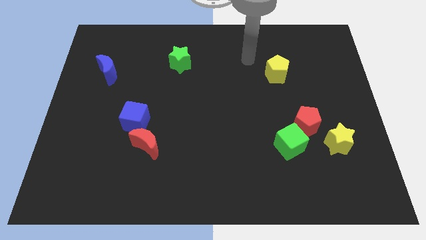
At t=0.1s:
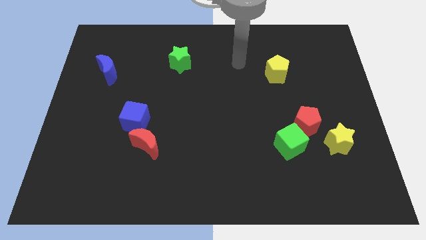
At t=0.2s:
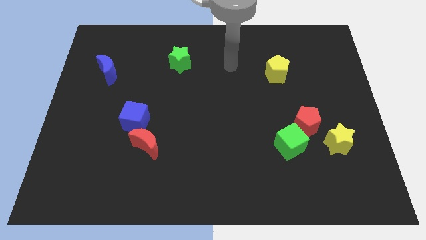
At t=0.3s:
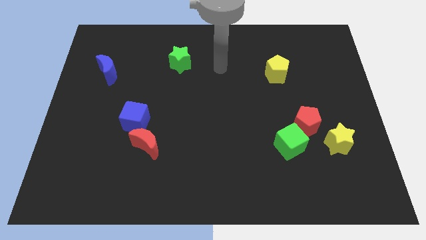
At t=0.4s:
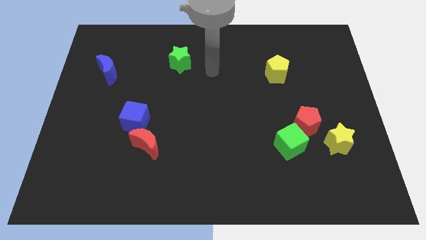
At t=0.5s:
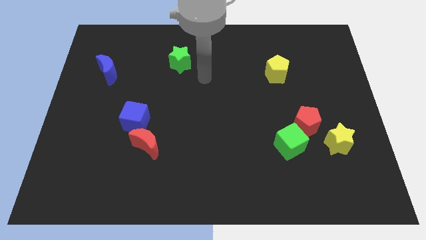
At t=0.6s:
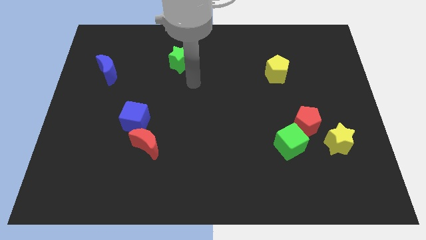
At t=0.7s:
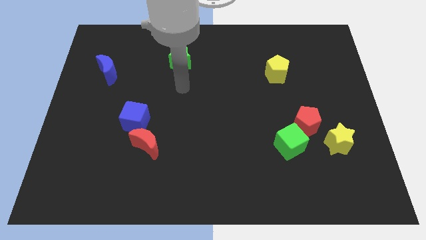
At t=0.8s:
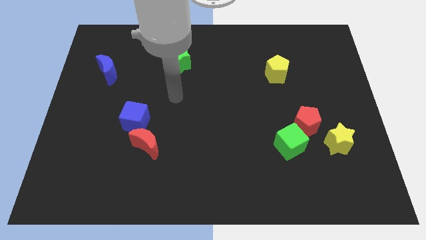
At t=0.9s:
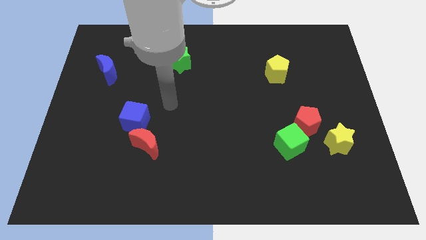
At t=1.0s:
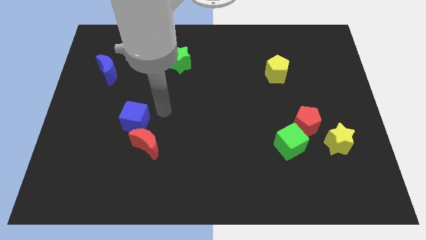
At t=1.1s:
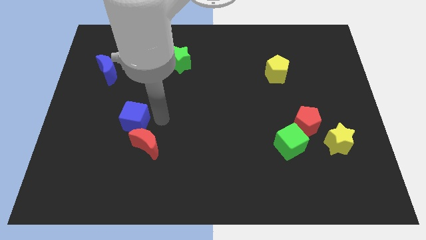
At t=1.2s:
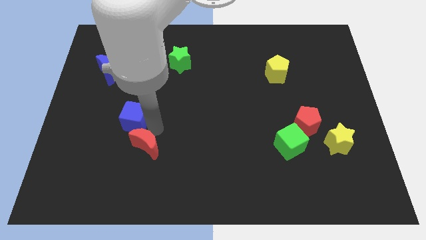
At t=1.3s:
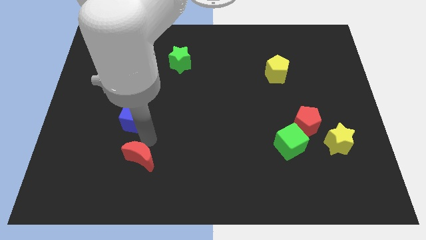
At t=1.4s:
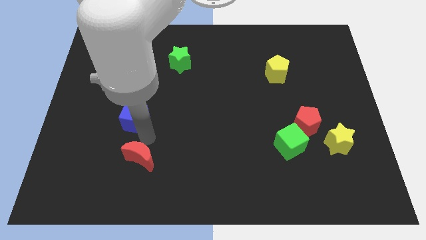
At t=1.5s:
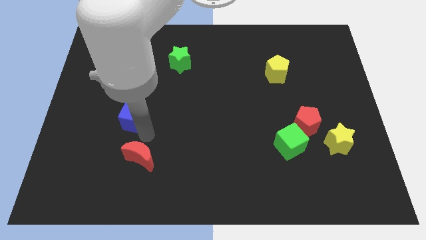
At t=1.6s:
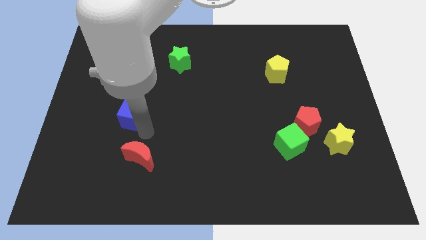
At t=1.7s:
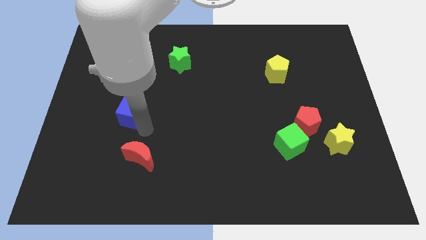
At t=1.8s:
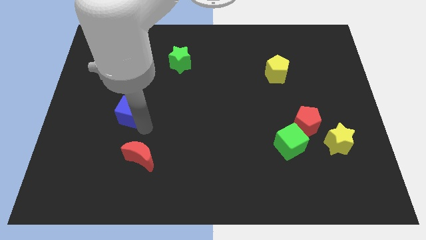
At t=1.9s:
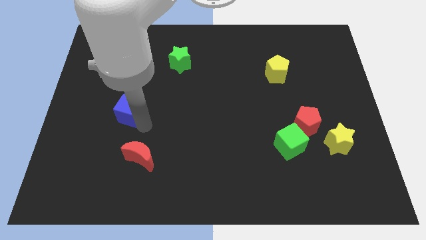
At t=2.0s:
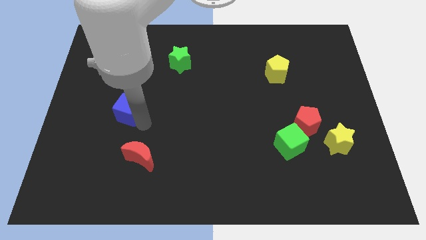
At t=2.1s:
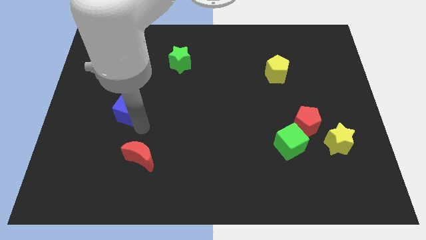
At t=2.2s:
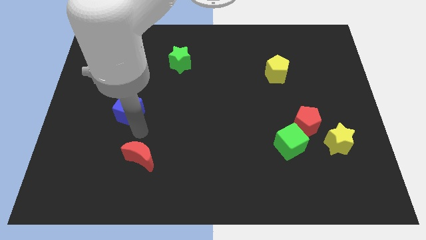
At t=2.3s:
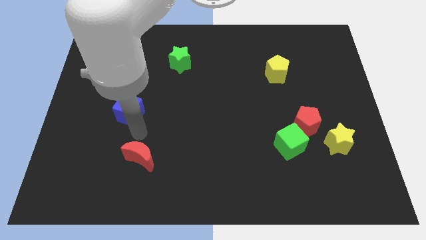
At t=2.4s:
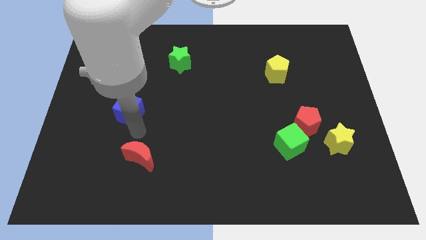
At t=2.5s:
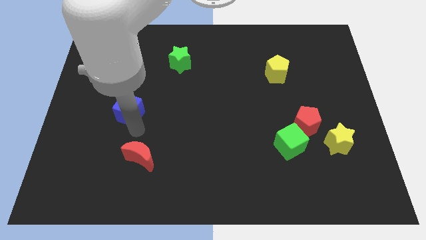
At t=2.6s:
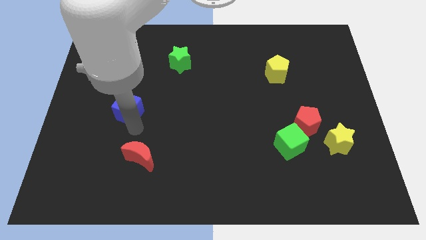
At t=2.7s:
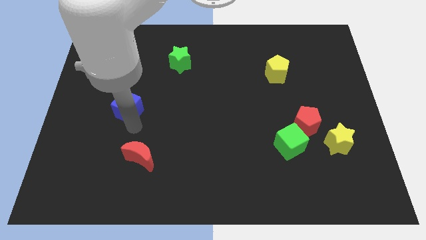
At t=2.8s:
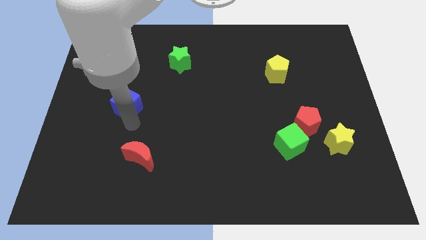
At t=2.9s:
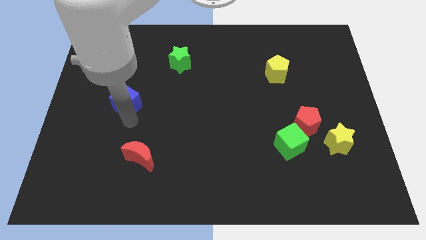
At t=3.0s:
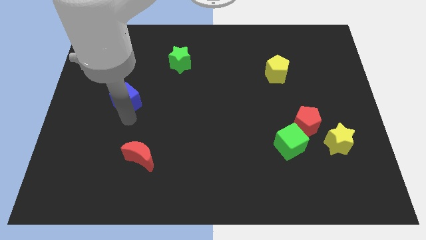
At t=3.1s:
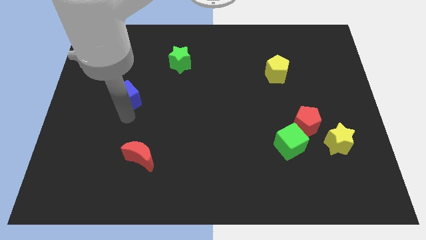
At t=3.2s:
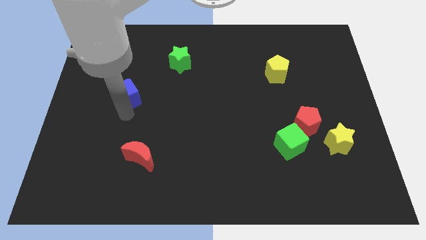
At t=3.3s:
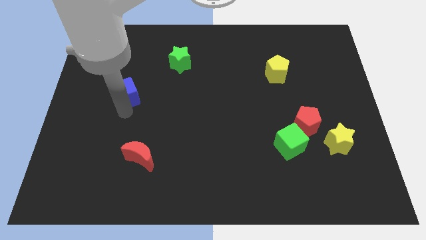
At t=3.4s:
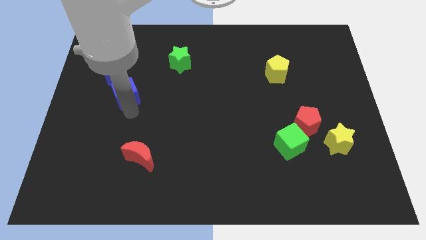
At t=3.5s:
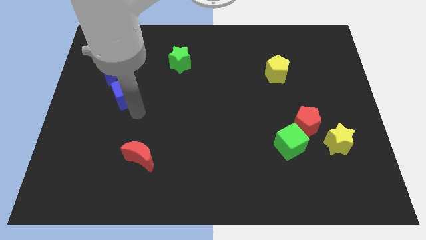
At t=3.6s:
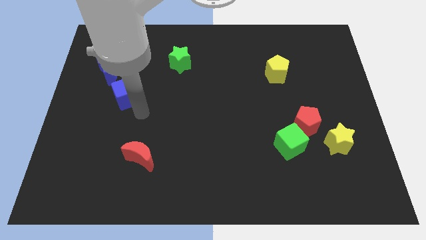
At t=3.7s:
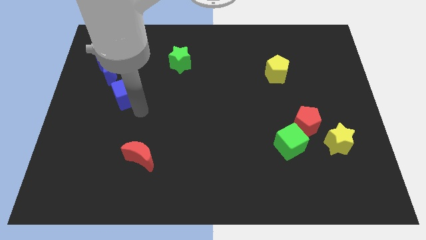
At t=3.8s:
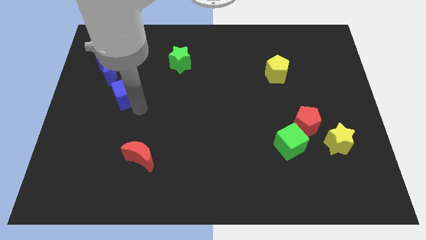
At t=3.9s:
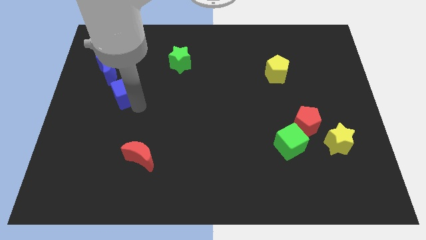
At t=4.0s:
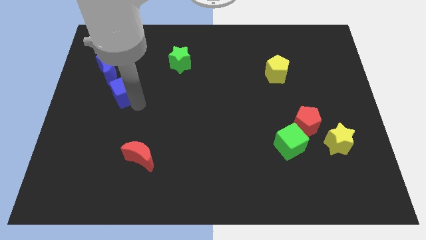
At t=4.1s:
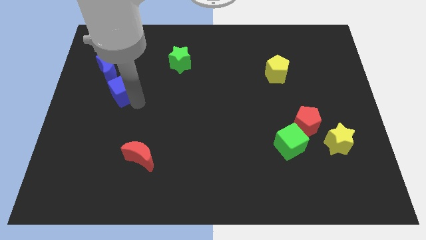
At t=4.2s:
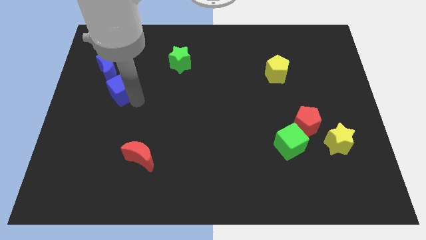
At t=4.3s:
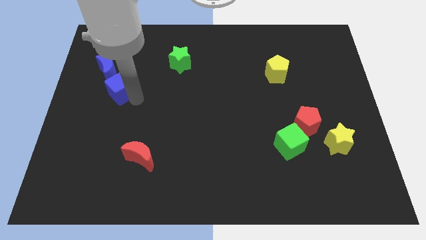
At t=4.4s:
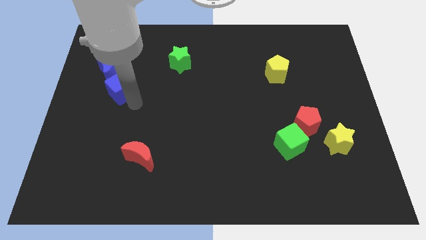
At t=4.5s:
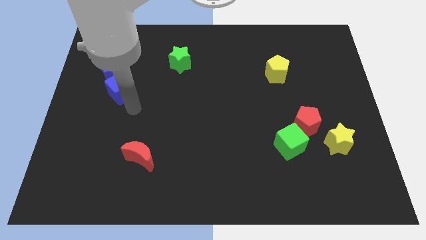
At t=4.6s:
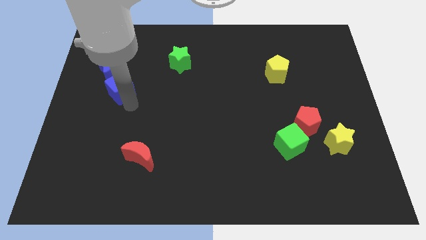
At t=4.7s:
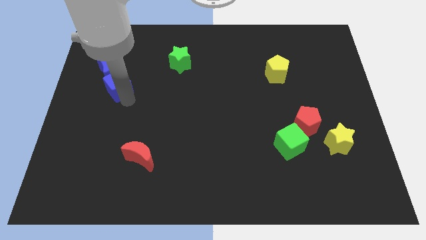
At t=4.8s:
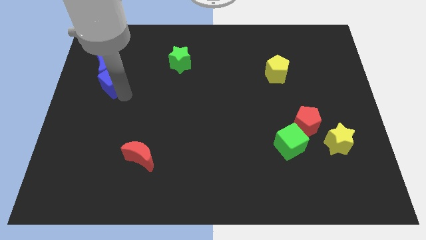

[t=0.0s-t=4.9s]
put the blue cube next to the blue moon

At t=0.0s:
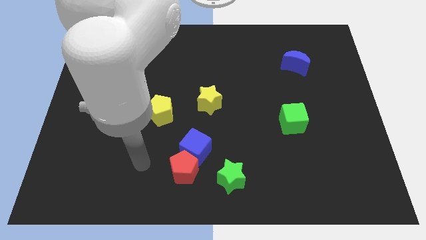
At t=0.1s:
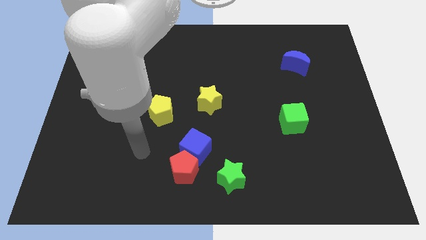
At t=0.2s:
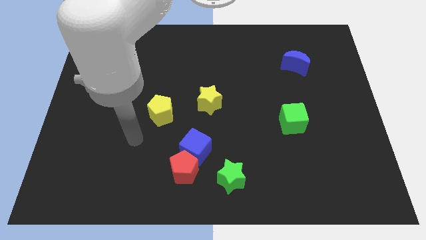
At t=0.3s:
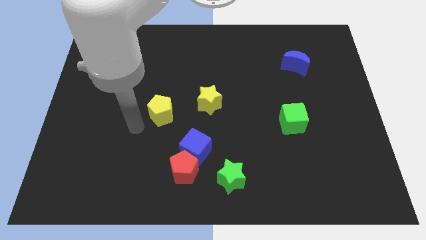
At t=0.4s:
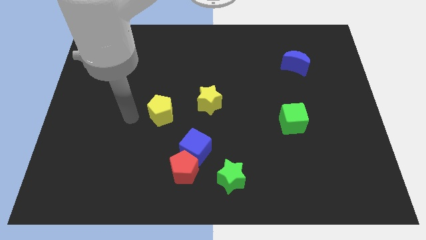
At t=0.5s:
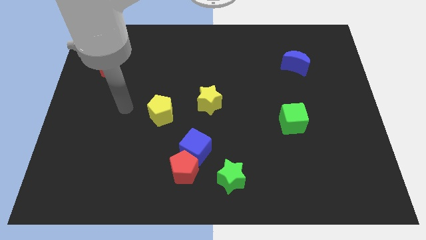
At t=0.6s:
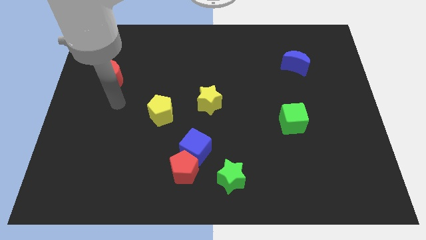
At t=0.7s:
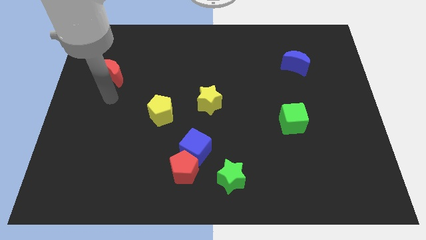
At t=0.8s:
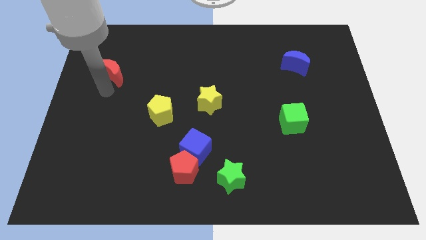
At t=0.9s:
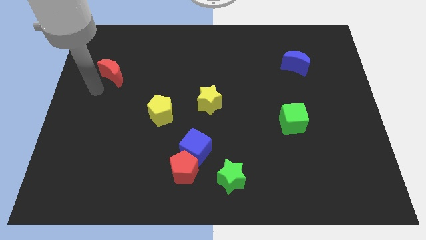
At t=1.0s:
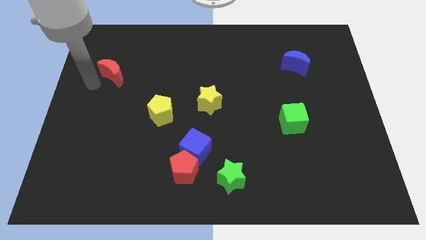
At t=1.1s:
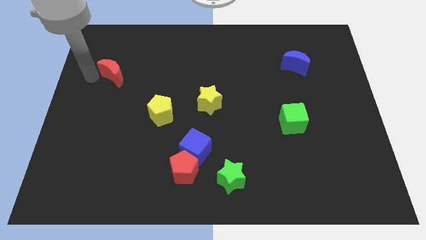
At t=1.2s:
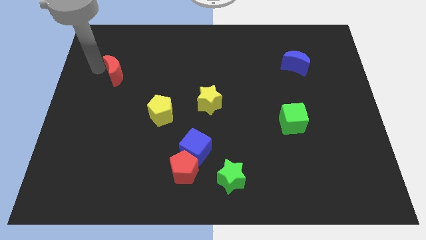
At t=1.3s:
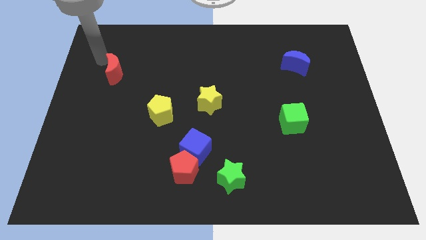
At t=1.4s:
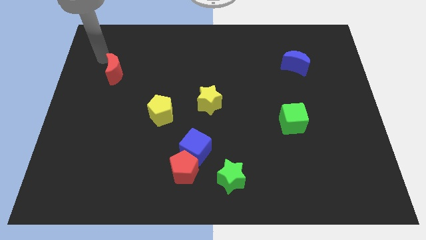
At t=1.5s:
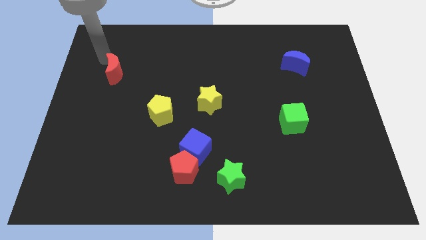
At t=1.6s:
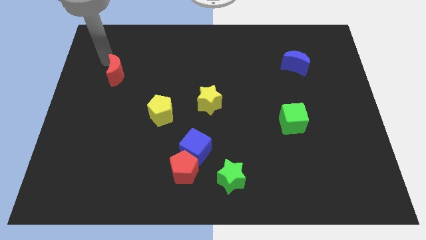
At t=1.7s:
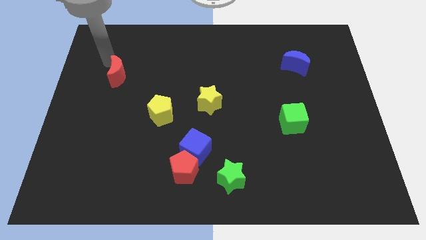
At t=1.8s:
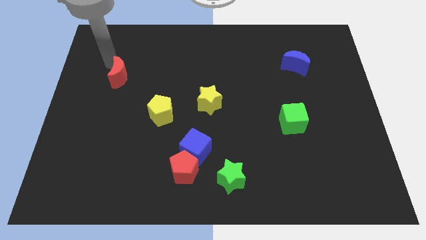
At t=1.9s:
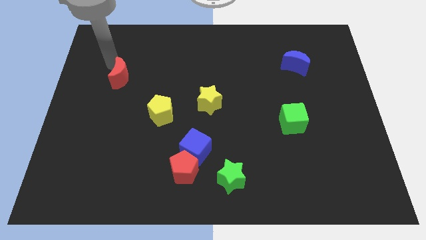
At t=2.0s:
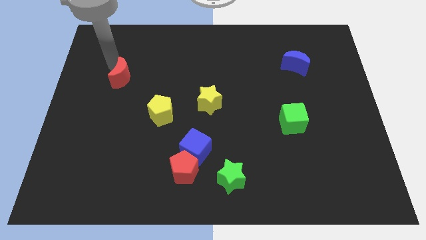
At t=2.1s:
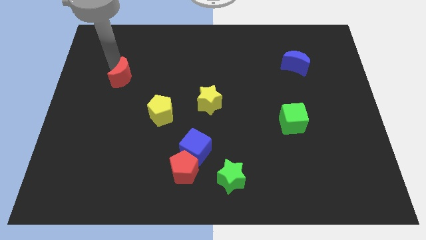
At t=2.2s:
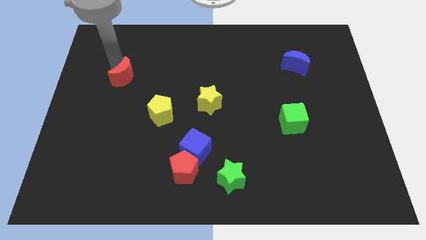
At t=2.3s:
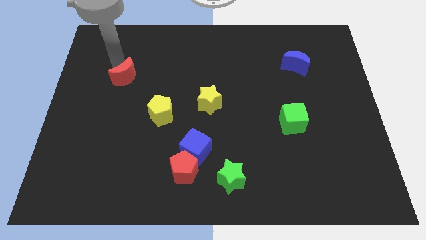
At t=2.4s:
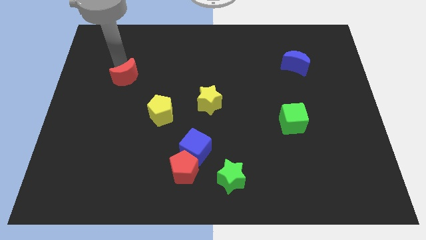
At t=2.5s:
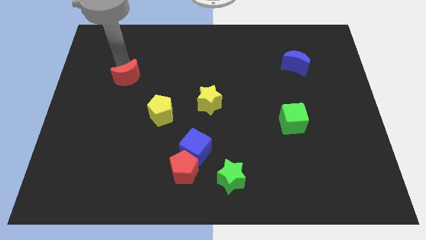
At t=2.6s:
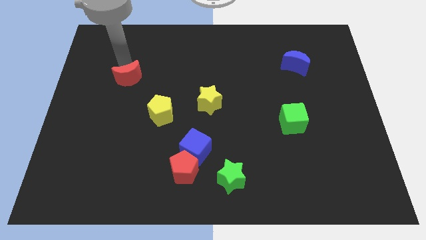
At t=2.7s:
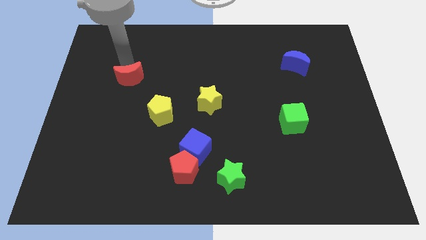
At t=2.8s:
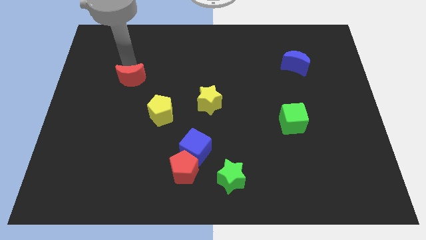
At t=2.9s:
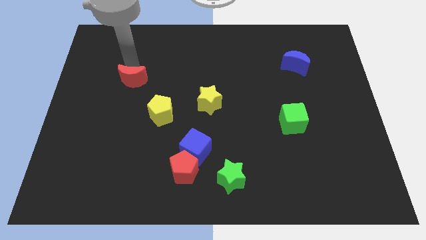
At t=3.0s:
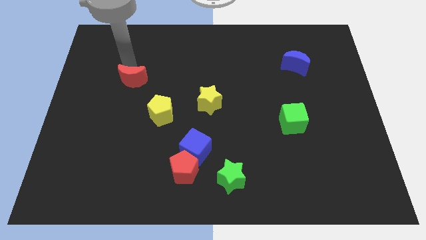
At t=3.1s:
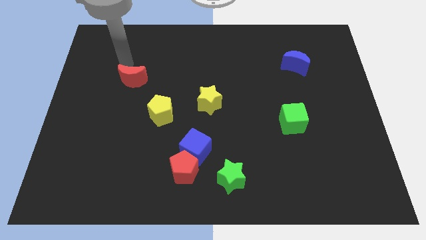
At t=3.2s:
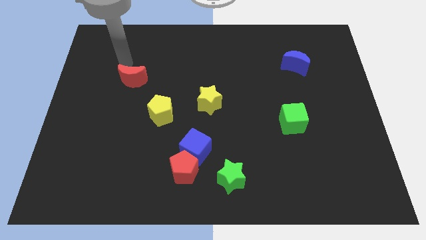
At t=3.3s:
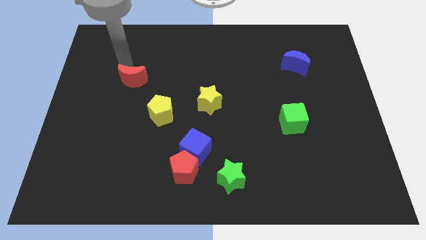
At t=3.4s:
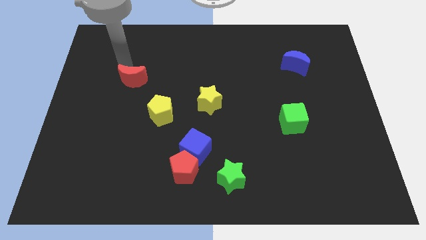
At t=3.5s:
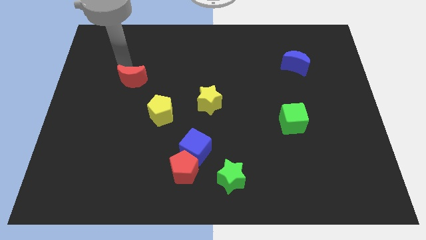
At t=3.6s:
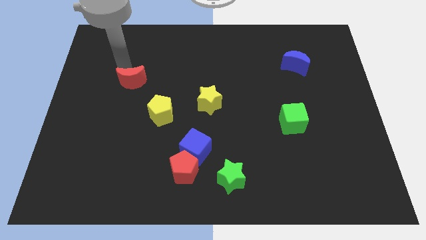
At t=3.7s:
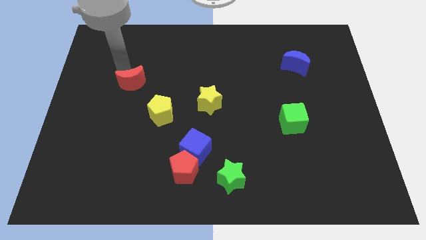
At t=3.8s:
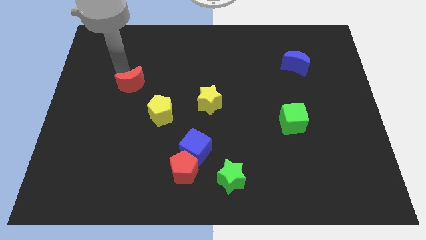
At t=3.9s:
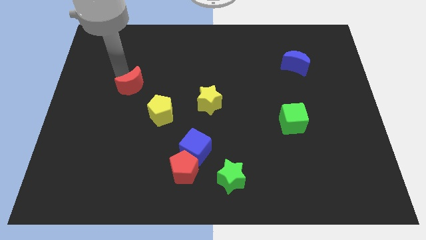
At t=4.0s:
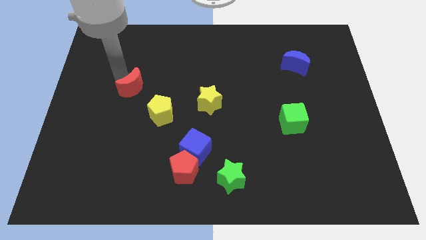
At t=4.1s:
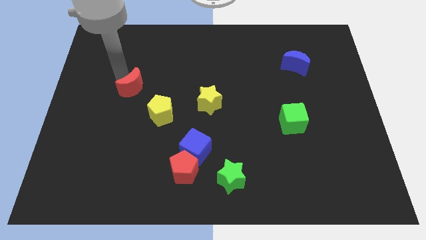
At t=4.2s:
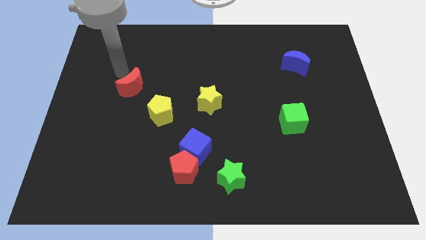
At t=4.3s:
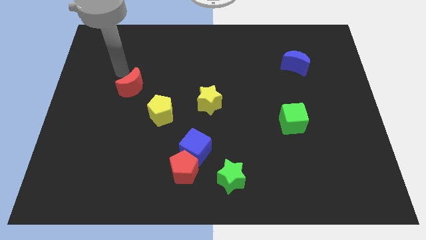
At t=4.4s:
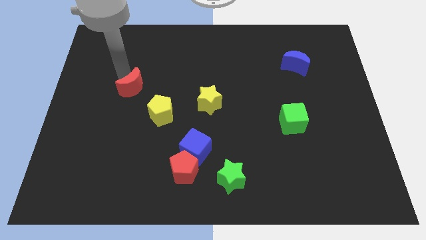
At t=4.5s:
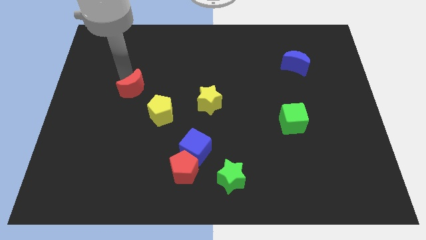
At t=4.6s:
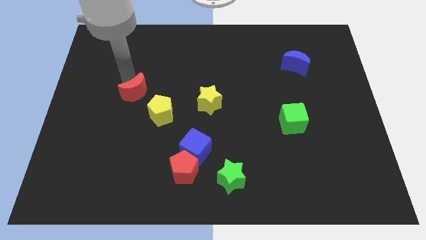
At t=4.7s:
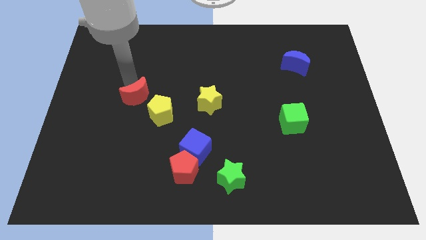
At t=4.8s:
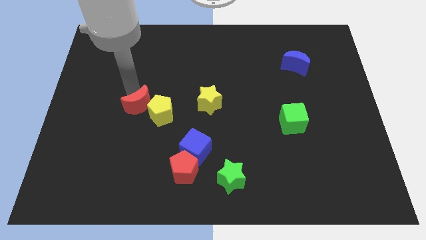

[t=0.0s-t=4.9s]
put the red moon close to the yellow pentagon
